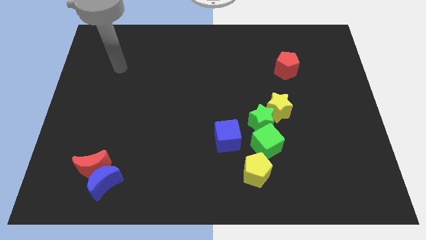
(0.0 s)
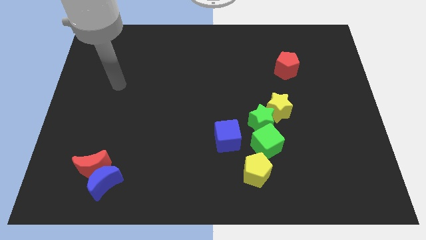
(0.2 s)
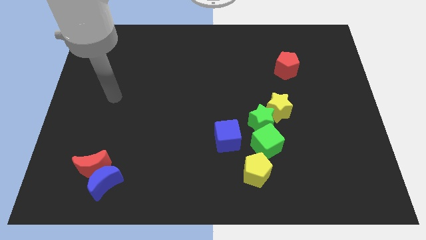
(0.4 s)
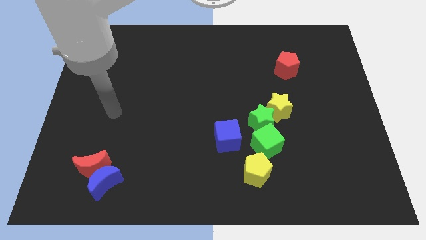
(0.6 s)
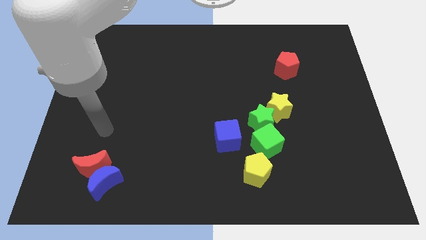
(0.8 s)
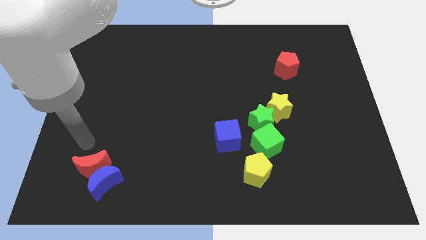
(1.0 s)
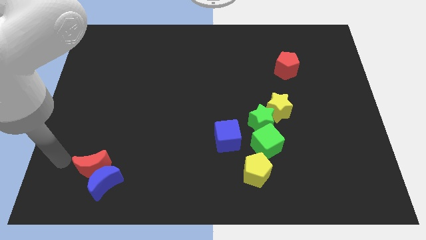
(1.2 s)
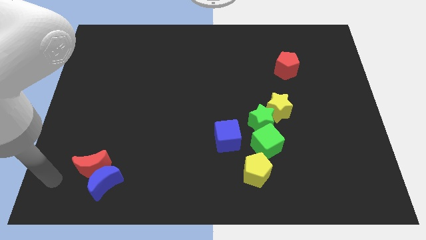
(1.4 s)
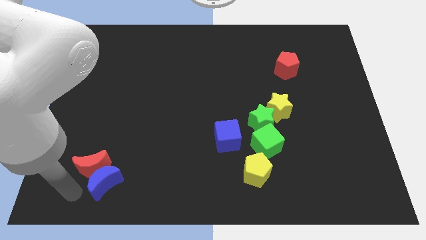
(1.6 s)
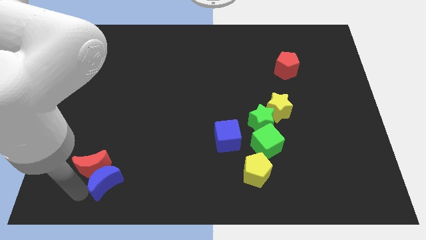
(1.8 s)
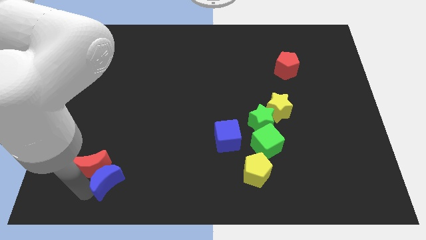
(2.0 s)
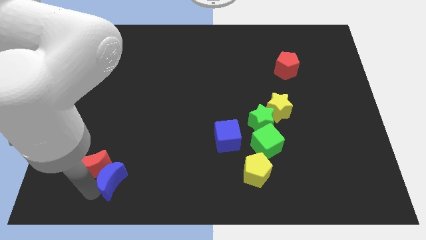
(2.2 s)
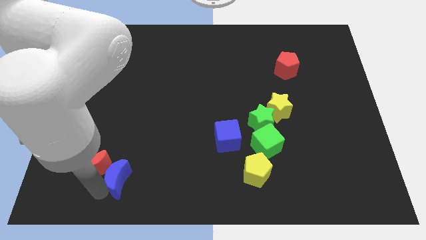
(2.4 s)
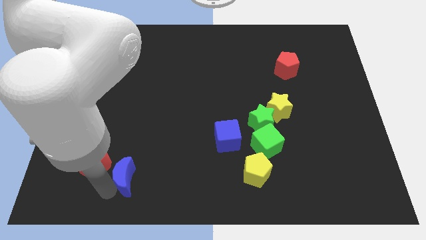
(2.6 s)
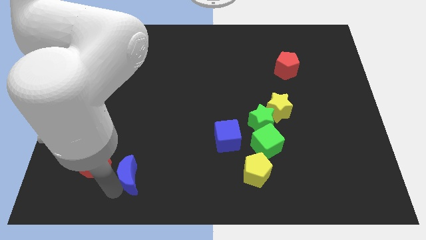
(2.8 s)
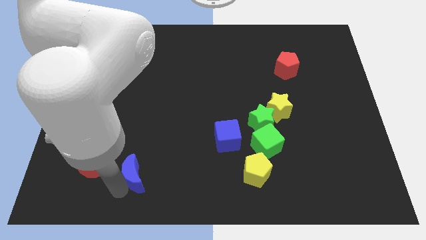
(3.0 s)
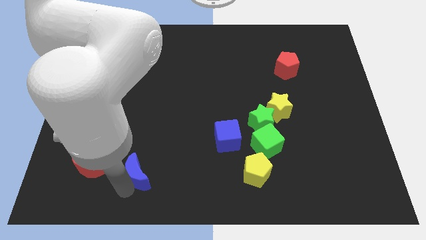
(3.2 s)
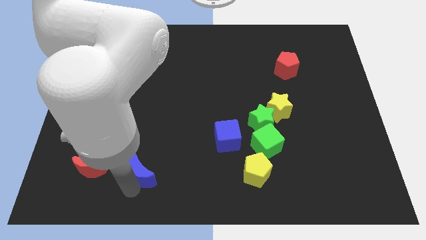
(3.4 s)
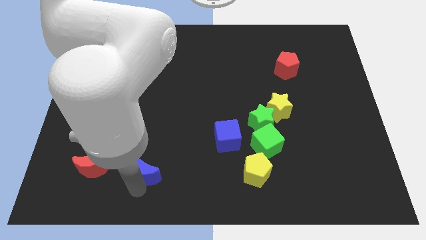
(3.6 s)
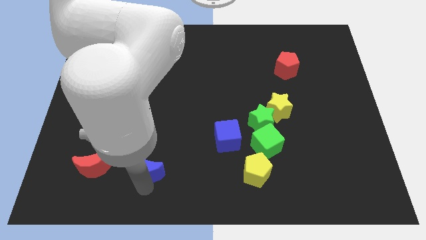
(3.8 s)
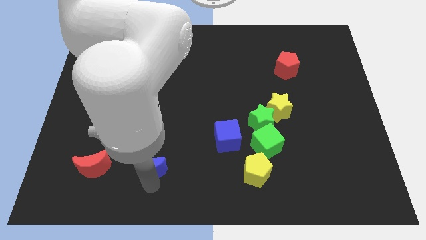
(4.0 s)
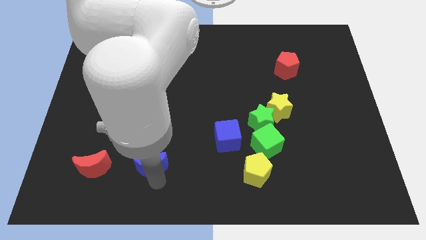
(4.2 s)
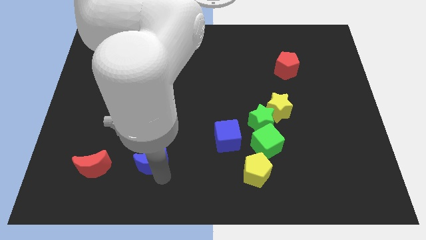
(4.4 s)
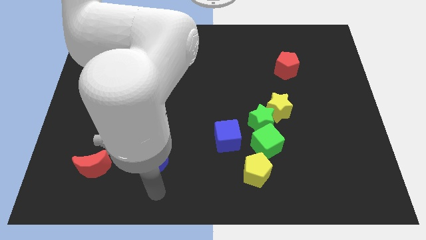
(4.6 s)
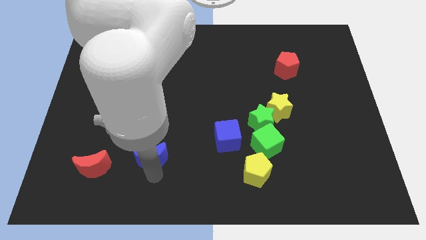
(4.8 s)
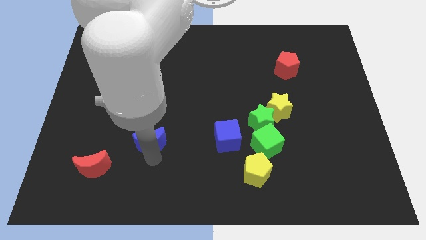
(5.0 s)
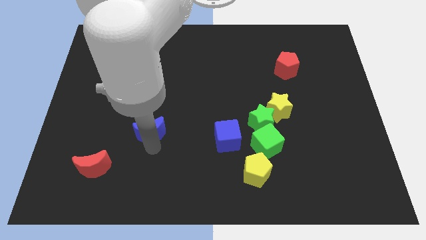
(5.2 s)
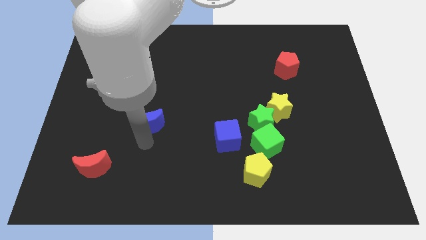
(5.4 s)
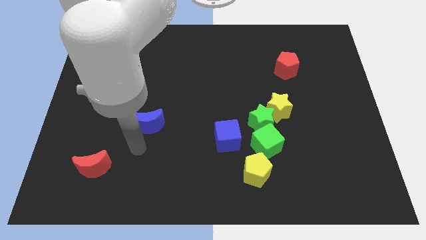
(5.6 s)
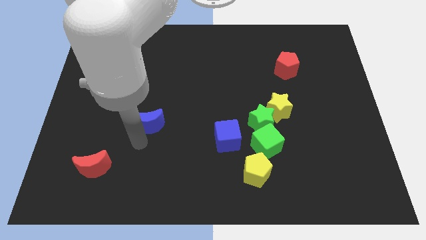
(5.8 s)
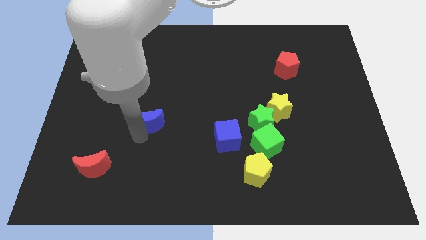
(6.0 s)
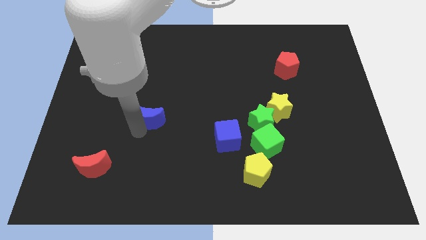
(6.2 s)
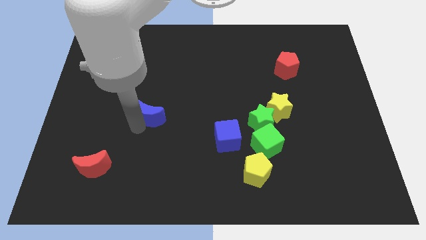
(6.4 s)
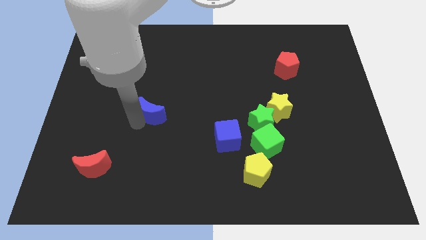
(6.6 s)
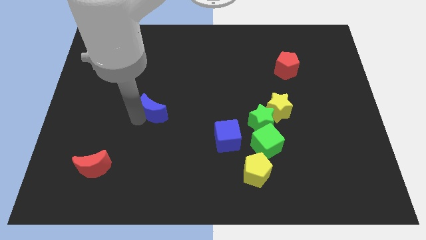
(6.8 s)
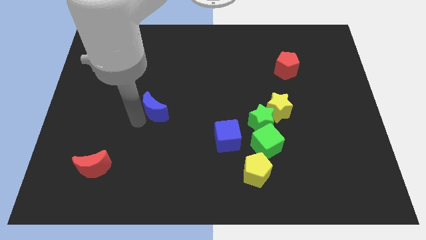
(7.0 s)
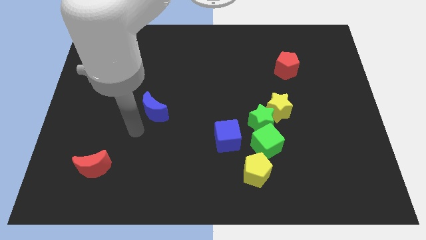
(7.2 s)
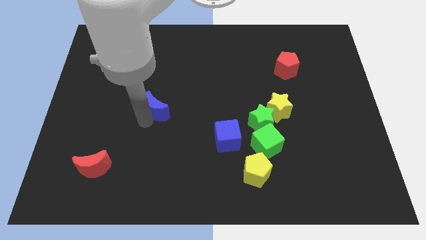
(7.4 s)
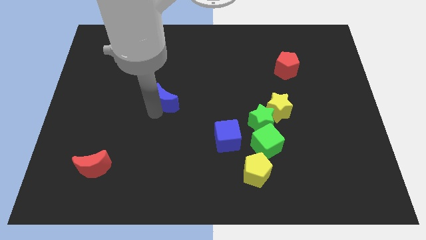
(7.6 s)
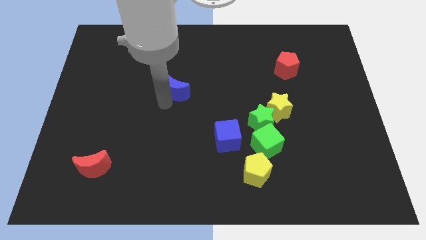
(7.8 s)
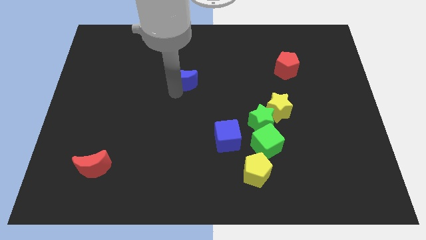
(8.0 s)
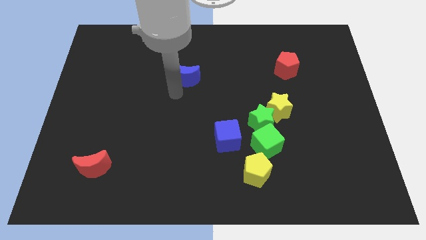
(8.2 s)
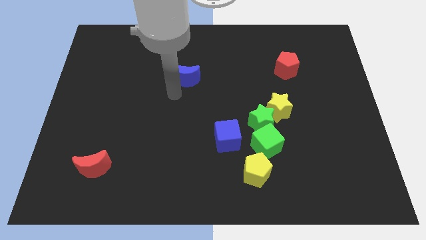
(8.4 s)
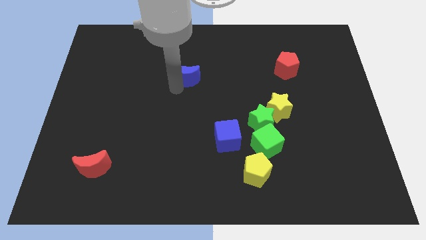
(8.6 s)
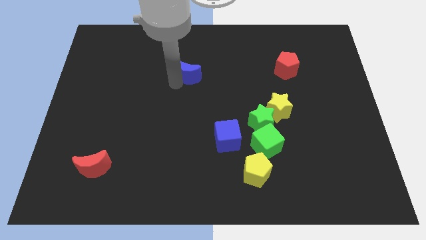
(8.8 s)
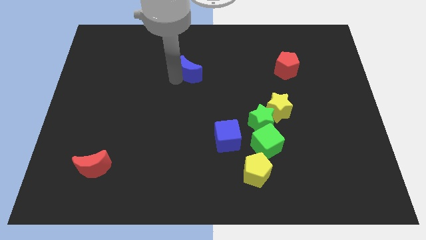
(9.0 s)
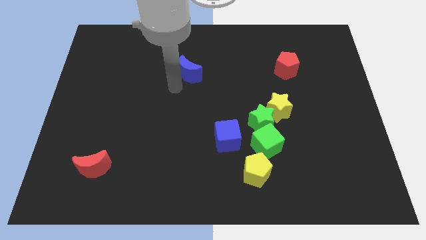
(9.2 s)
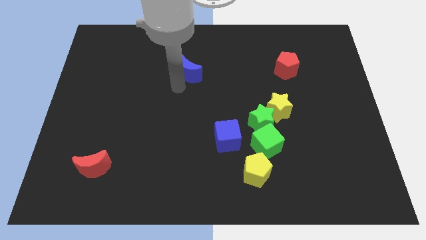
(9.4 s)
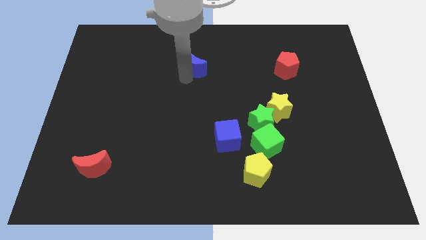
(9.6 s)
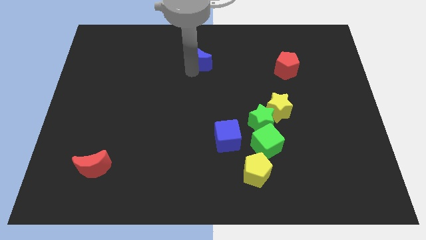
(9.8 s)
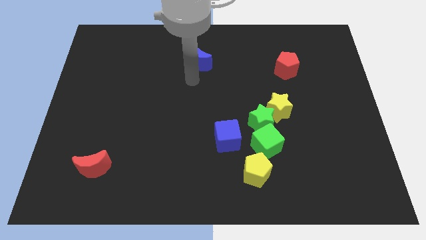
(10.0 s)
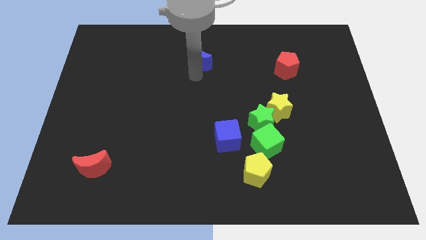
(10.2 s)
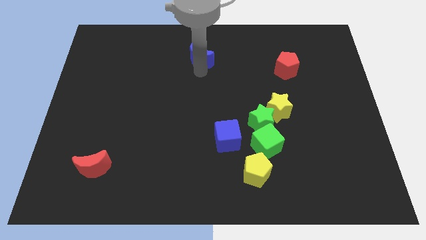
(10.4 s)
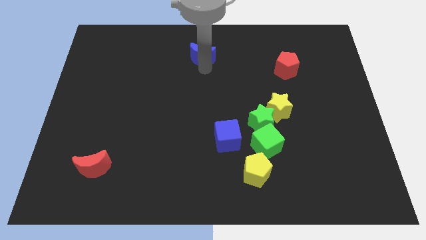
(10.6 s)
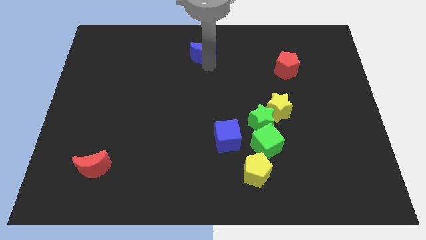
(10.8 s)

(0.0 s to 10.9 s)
push the blue moon to the top

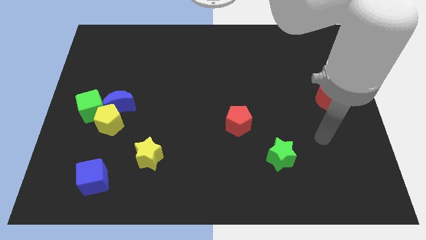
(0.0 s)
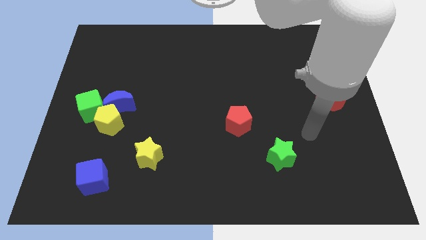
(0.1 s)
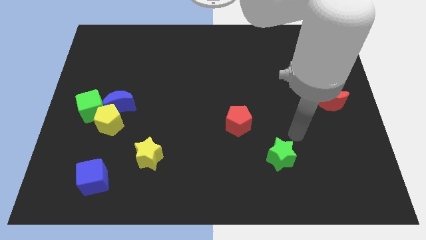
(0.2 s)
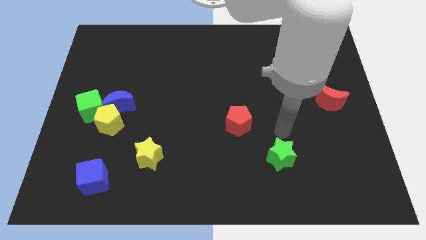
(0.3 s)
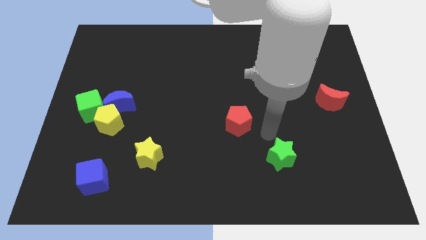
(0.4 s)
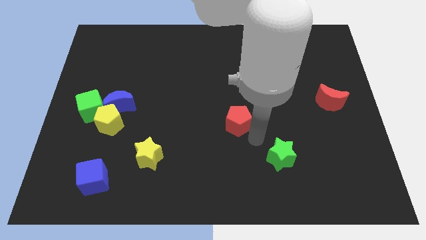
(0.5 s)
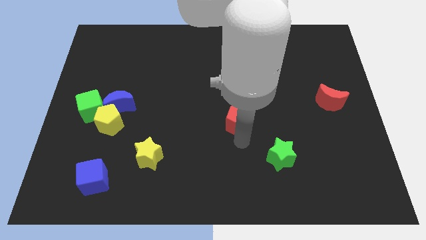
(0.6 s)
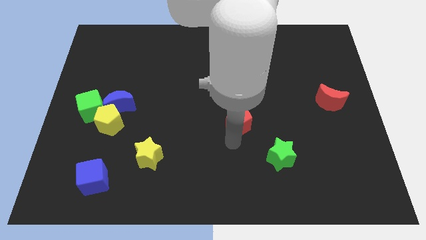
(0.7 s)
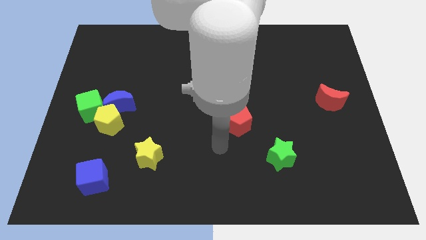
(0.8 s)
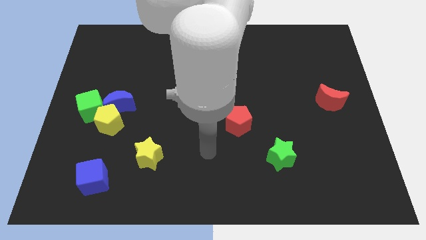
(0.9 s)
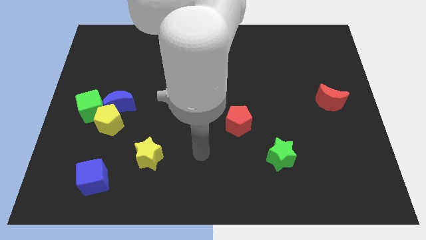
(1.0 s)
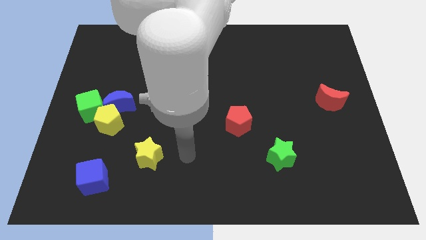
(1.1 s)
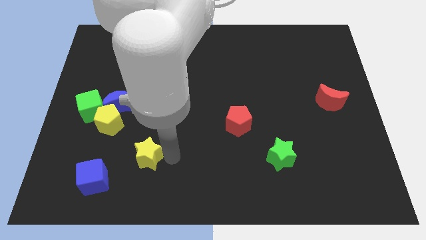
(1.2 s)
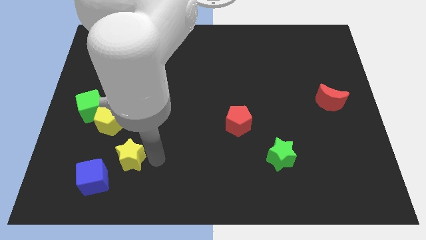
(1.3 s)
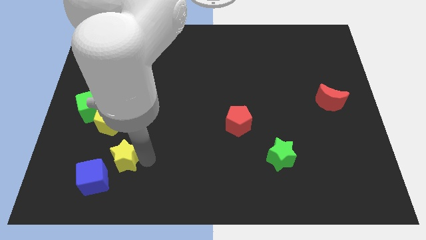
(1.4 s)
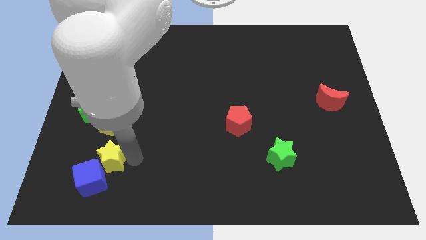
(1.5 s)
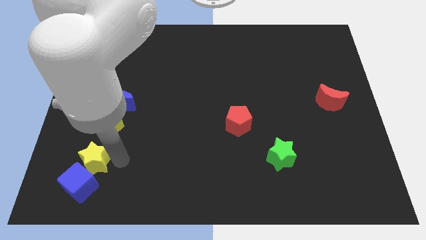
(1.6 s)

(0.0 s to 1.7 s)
put the blue cube to the bottom left corner
